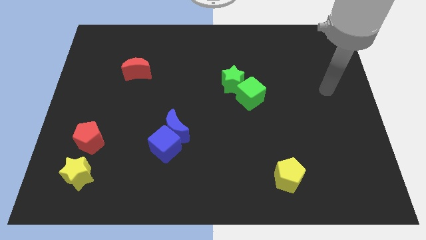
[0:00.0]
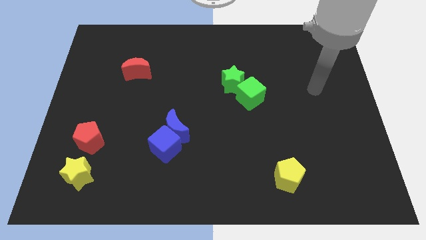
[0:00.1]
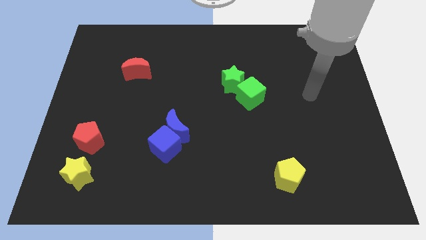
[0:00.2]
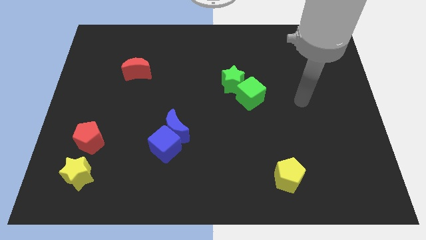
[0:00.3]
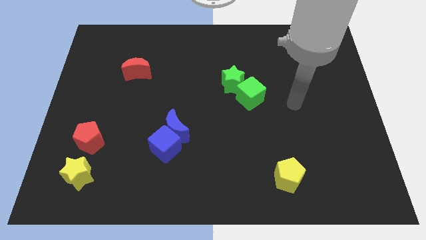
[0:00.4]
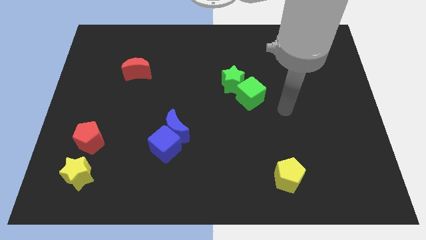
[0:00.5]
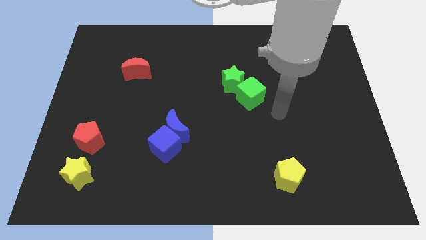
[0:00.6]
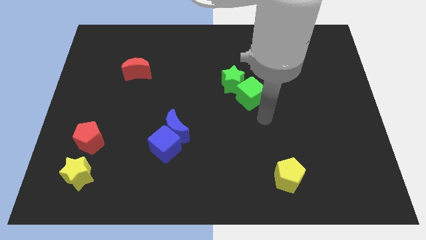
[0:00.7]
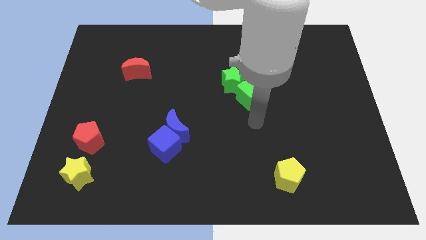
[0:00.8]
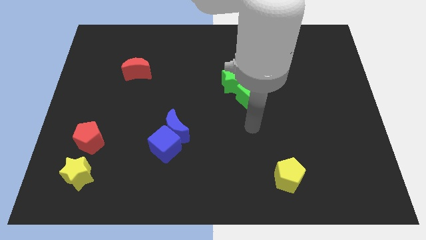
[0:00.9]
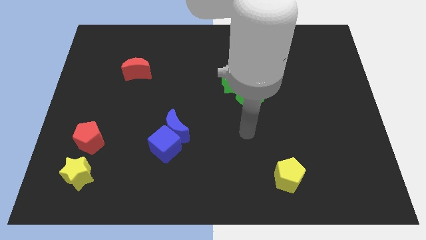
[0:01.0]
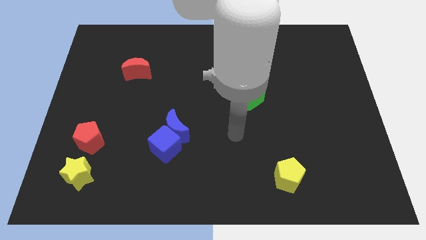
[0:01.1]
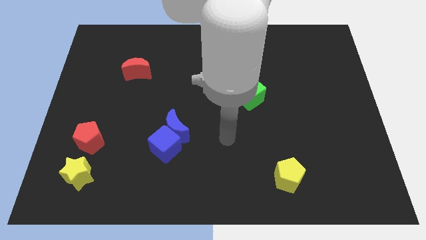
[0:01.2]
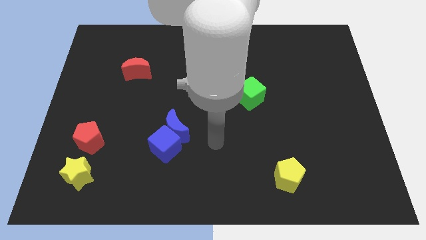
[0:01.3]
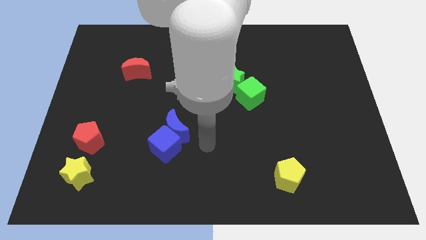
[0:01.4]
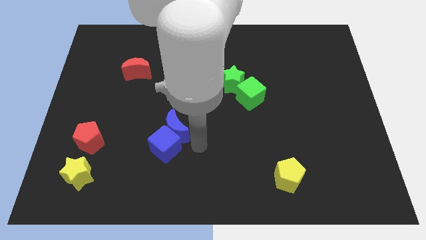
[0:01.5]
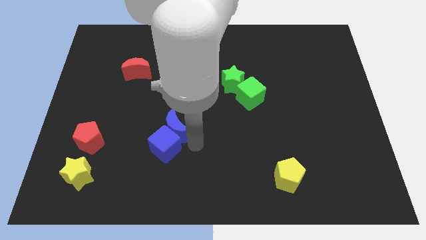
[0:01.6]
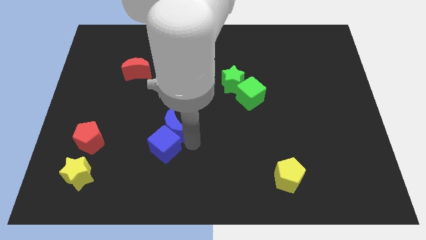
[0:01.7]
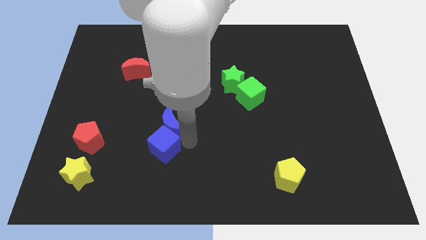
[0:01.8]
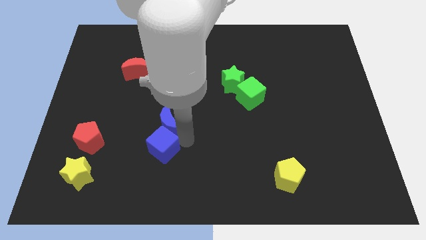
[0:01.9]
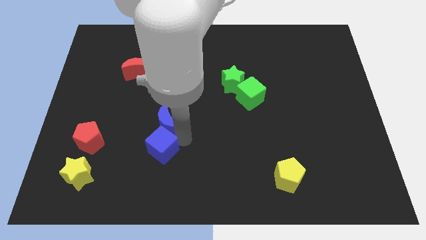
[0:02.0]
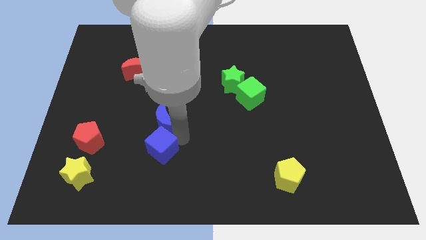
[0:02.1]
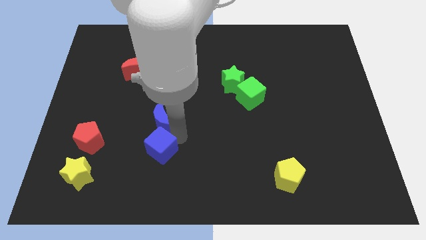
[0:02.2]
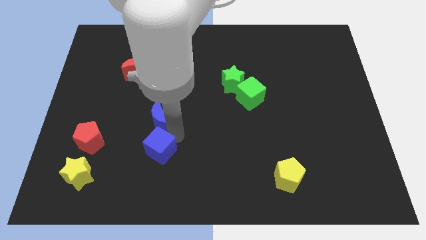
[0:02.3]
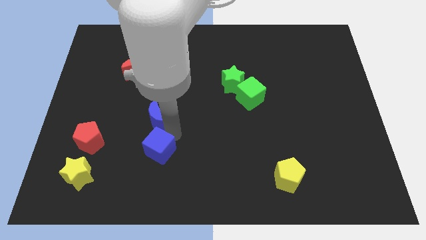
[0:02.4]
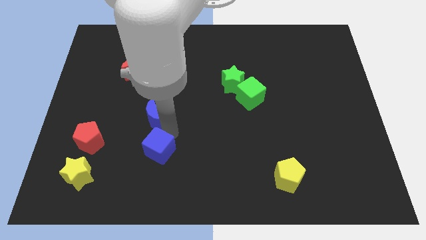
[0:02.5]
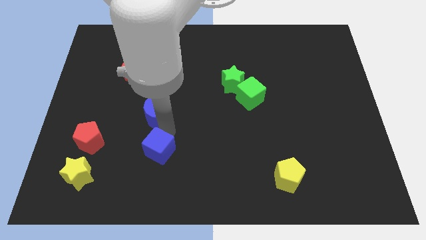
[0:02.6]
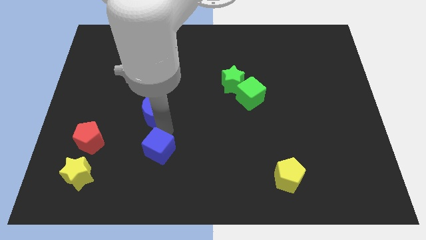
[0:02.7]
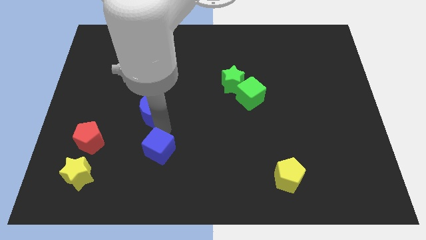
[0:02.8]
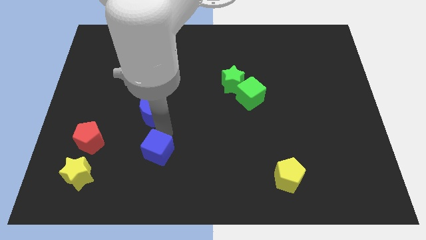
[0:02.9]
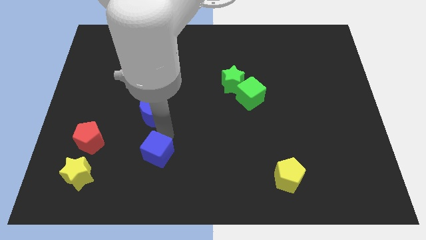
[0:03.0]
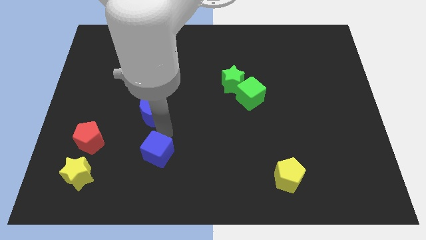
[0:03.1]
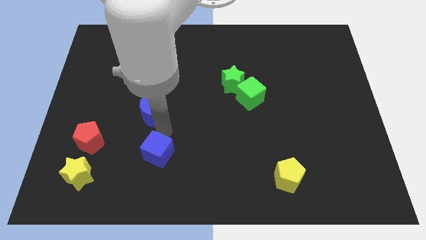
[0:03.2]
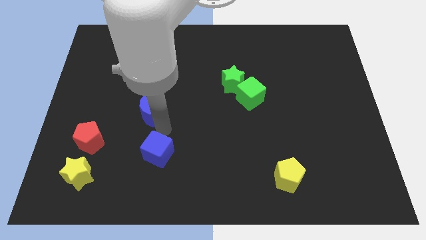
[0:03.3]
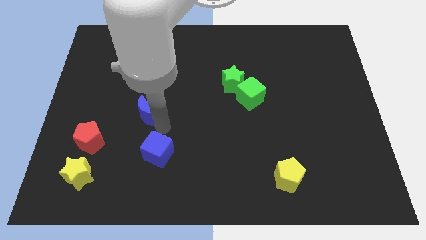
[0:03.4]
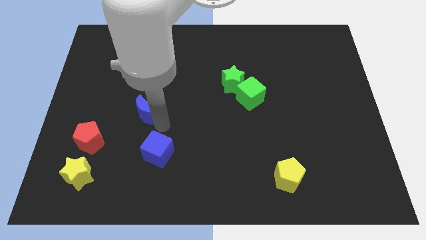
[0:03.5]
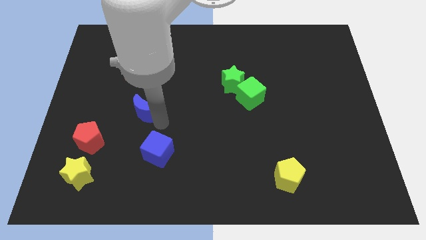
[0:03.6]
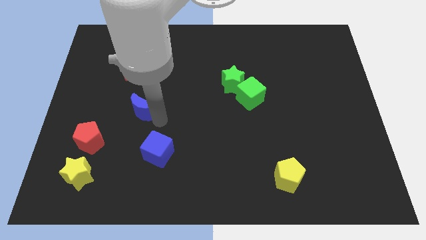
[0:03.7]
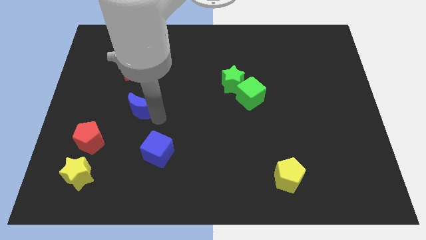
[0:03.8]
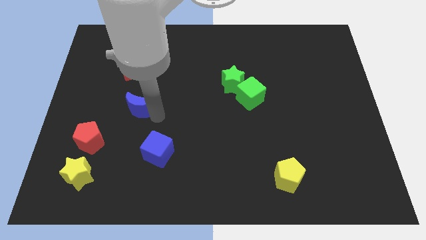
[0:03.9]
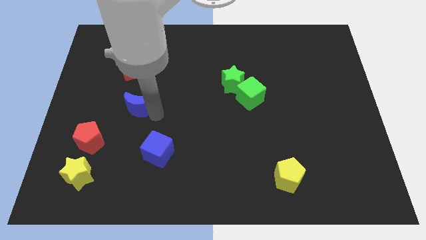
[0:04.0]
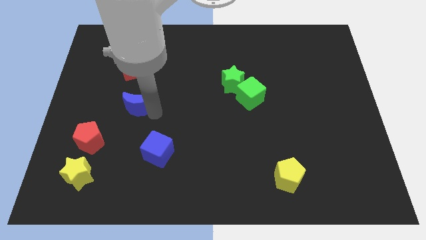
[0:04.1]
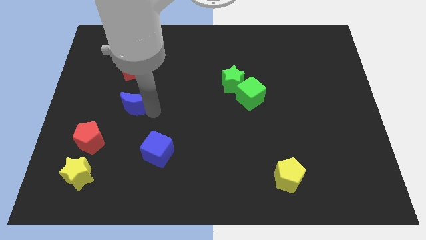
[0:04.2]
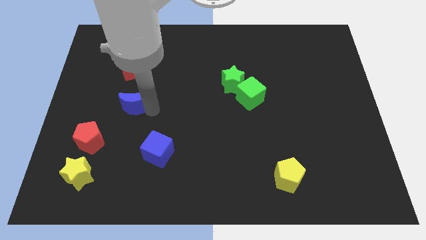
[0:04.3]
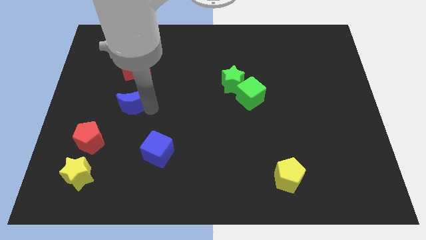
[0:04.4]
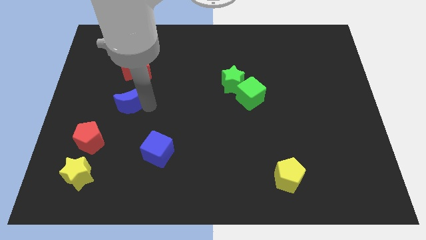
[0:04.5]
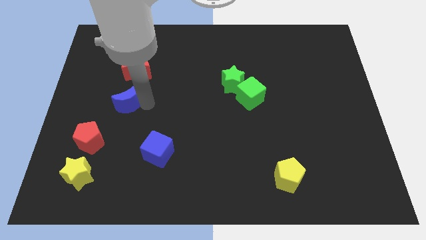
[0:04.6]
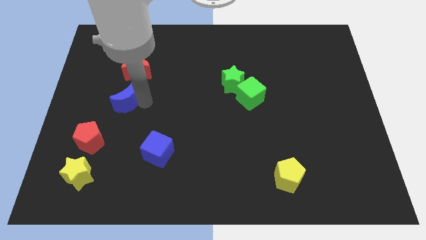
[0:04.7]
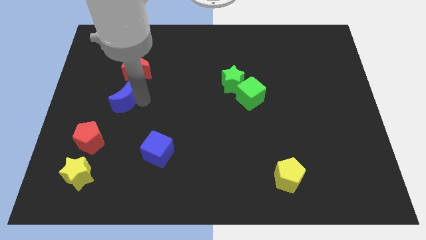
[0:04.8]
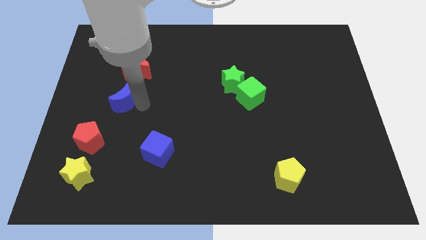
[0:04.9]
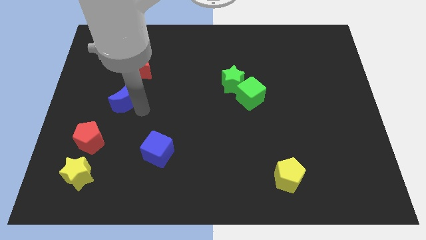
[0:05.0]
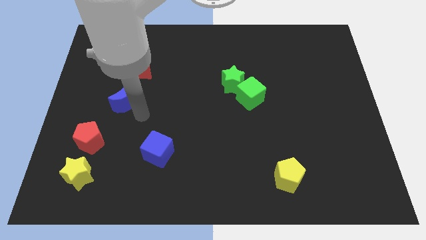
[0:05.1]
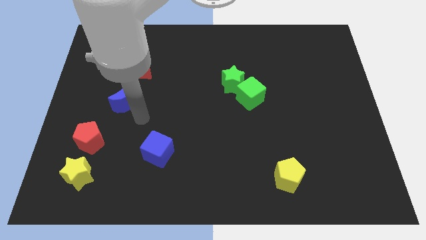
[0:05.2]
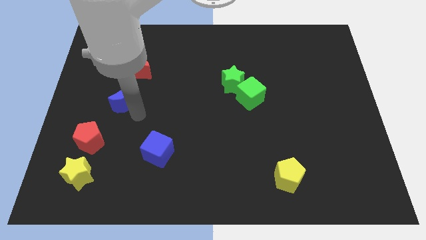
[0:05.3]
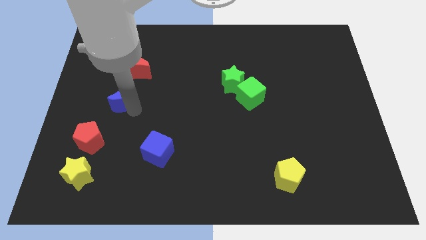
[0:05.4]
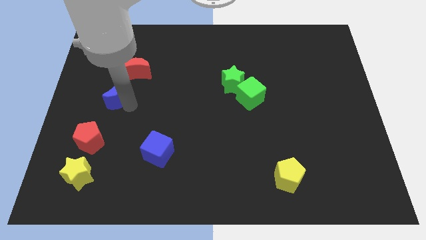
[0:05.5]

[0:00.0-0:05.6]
put the blue moon to the bottom left side of the red moon

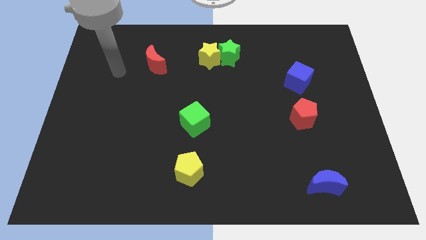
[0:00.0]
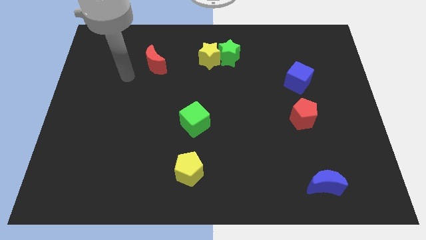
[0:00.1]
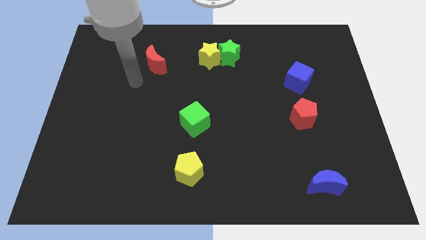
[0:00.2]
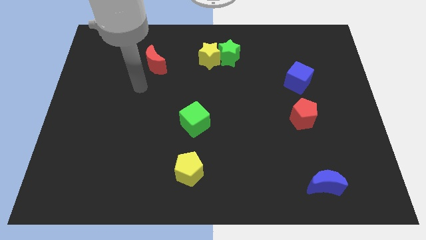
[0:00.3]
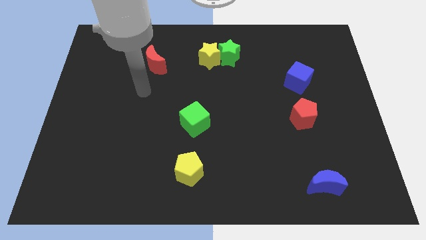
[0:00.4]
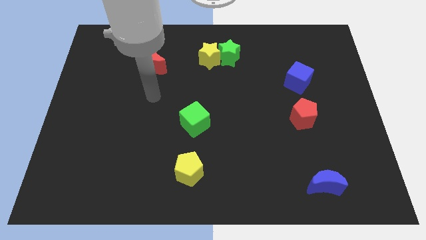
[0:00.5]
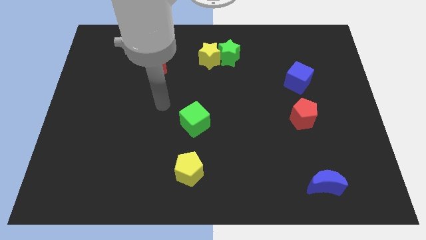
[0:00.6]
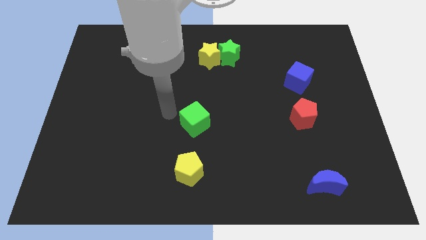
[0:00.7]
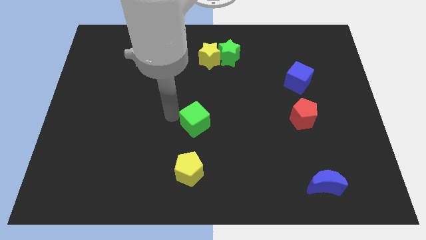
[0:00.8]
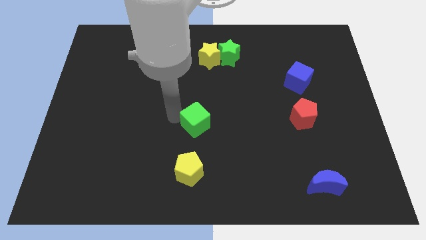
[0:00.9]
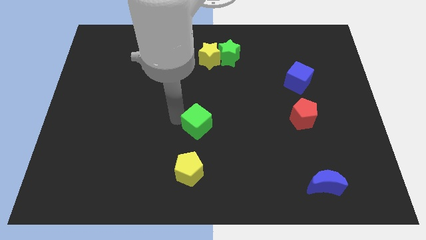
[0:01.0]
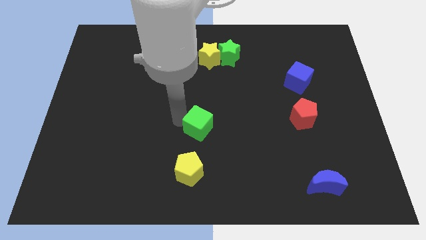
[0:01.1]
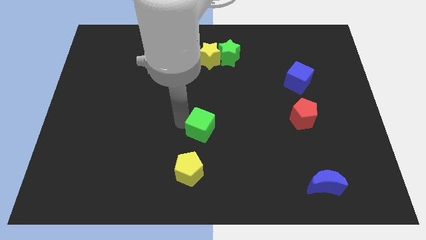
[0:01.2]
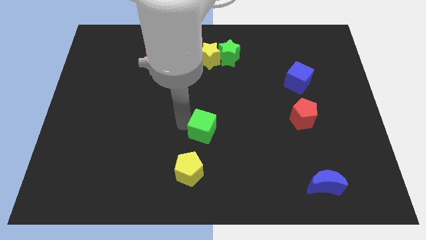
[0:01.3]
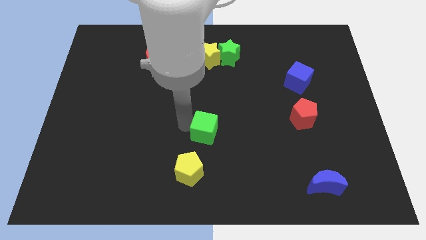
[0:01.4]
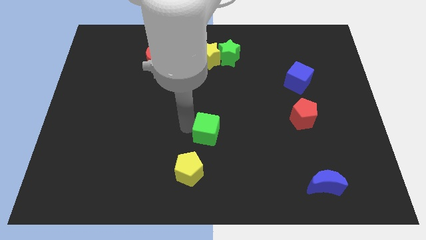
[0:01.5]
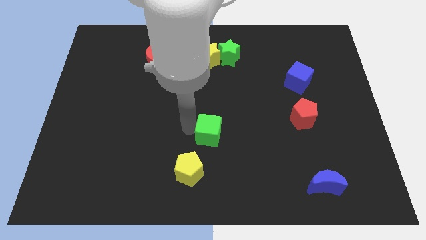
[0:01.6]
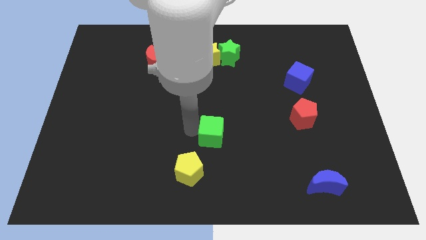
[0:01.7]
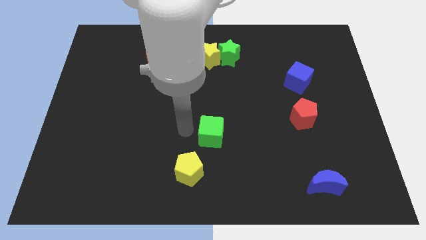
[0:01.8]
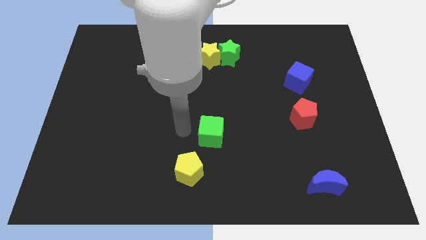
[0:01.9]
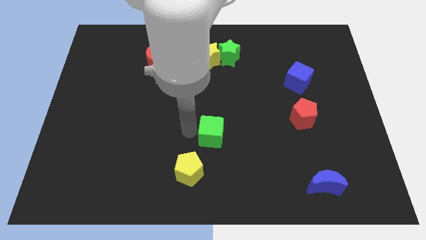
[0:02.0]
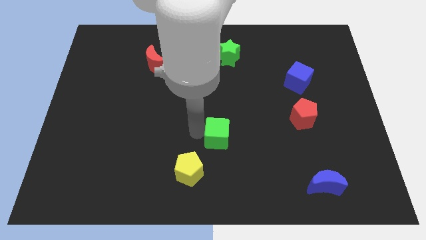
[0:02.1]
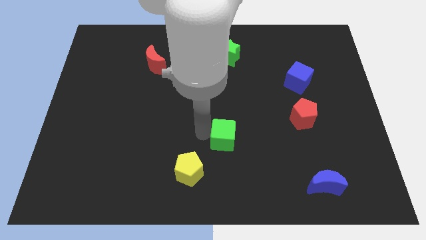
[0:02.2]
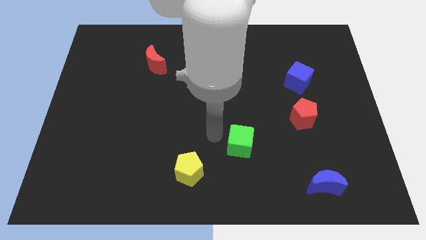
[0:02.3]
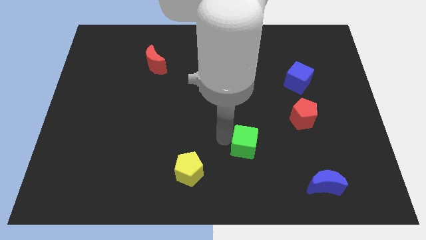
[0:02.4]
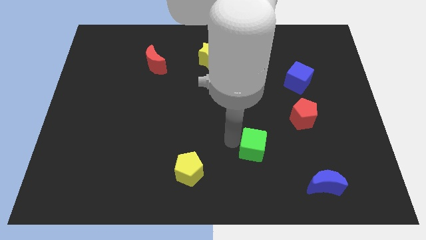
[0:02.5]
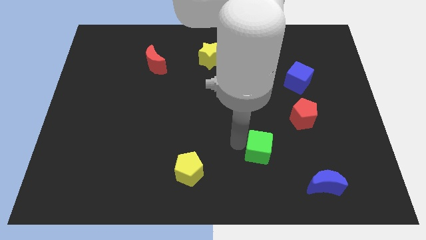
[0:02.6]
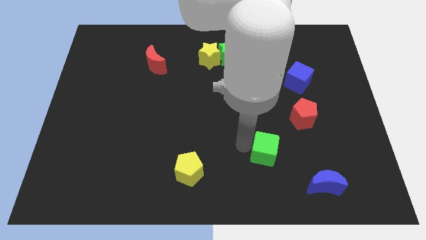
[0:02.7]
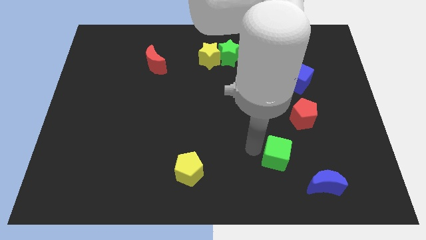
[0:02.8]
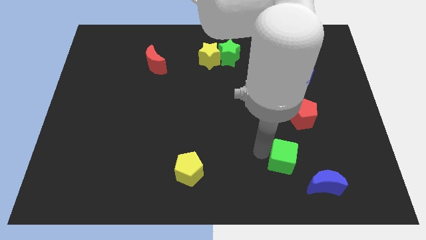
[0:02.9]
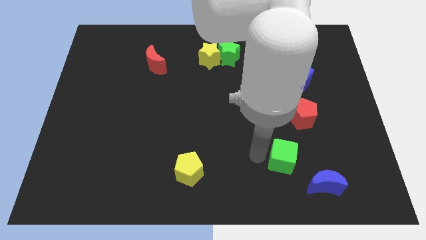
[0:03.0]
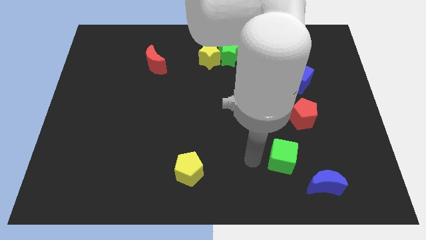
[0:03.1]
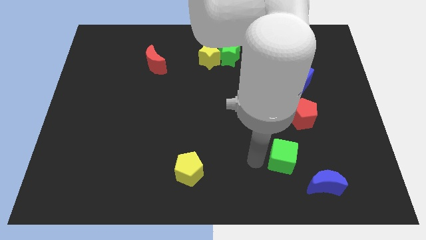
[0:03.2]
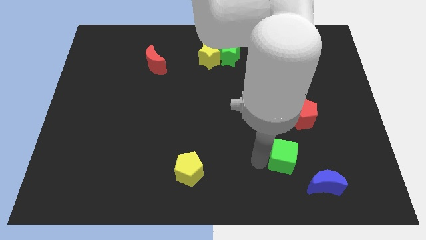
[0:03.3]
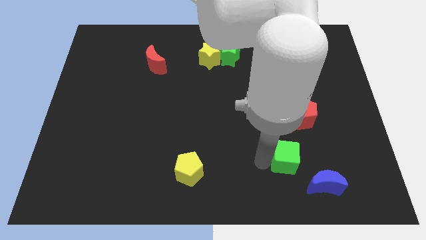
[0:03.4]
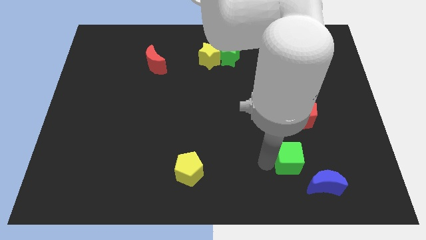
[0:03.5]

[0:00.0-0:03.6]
slide the green cube below the red pentagon
